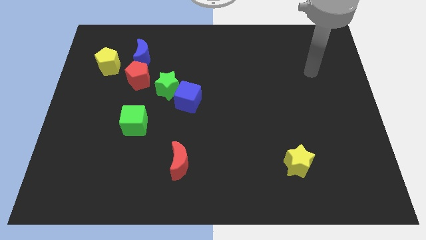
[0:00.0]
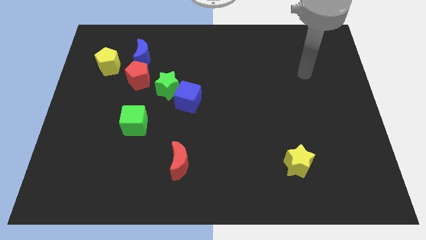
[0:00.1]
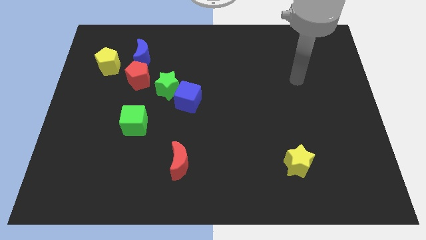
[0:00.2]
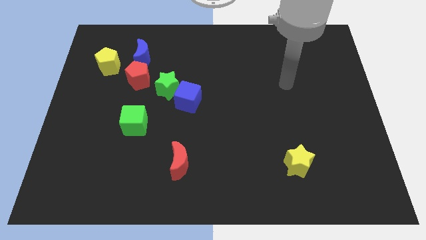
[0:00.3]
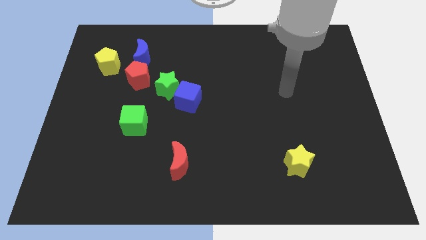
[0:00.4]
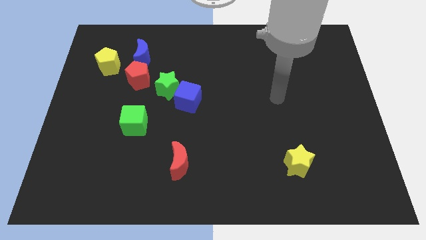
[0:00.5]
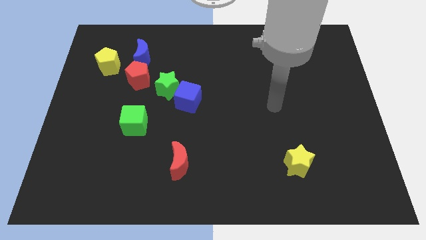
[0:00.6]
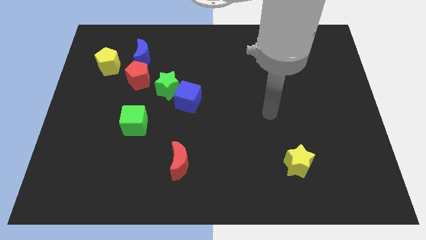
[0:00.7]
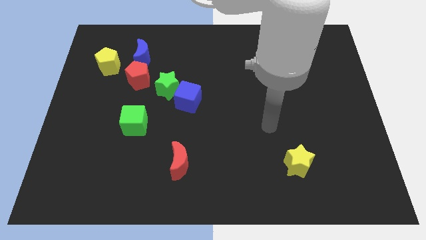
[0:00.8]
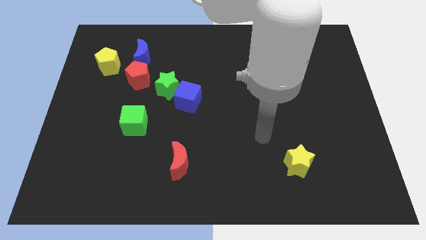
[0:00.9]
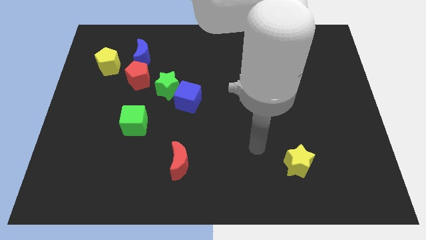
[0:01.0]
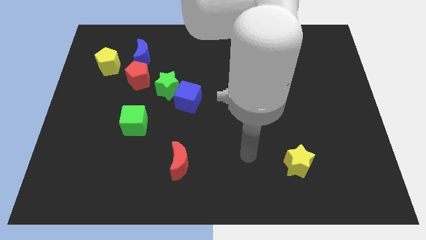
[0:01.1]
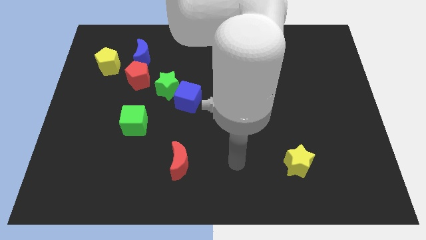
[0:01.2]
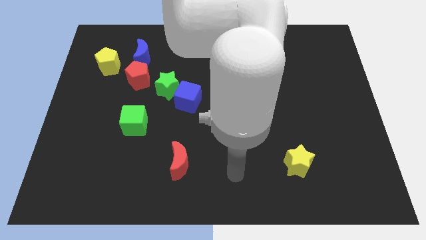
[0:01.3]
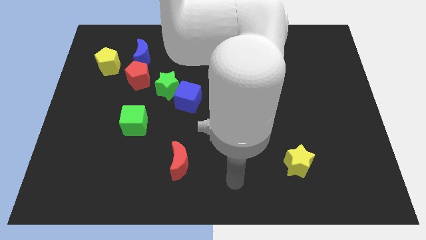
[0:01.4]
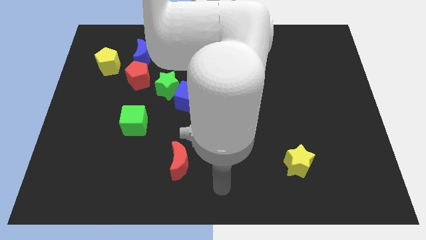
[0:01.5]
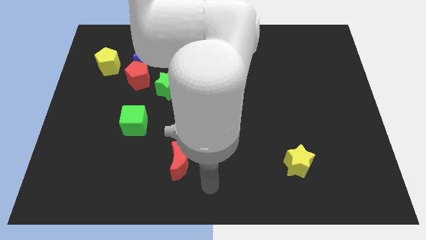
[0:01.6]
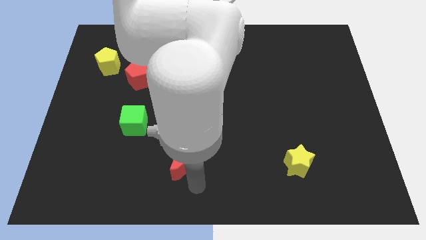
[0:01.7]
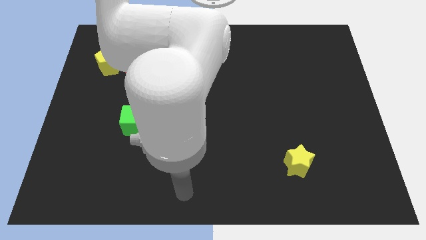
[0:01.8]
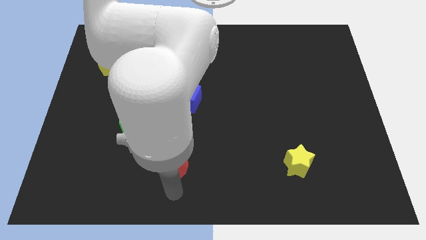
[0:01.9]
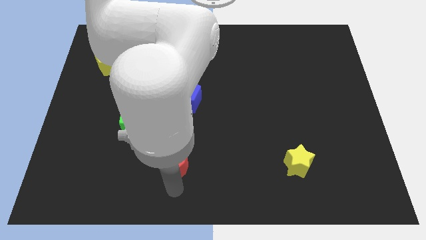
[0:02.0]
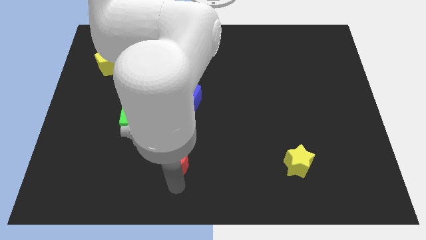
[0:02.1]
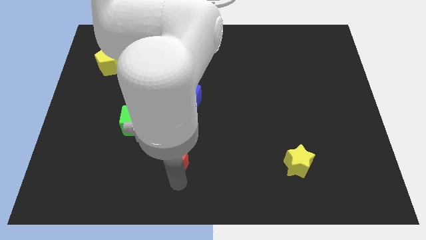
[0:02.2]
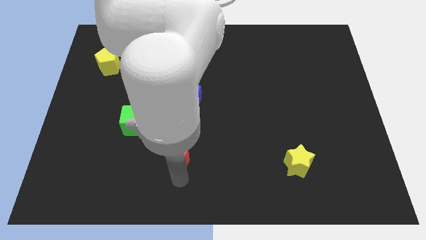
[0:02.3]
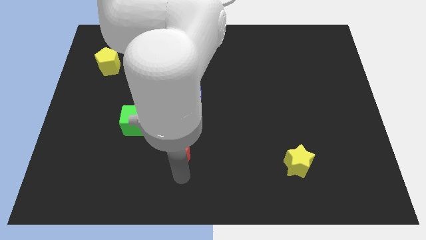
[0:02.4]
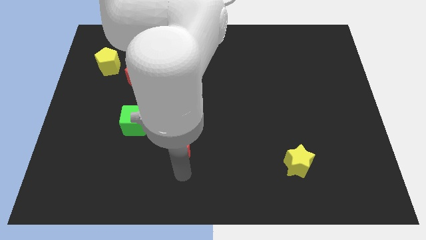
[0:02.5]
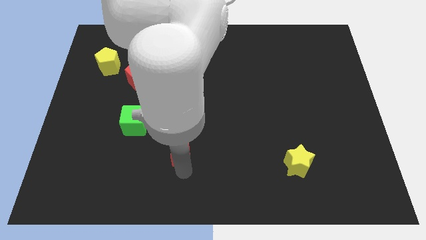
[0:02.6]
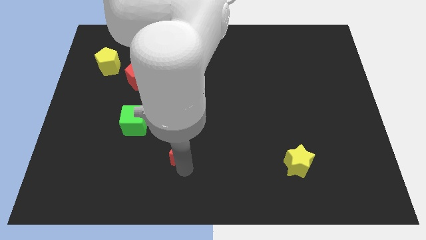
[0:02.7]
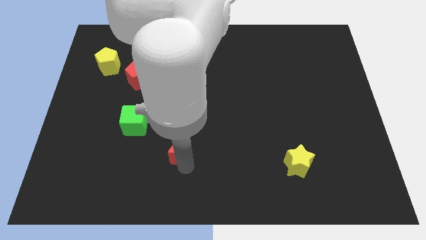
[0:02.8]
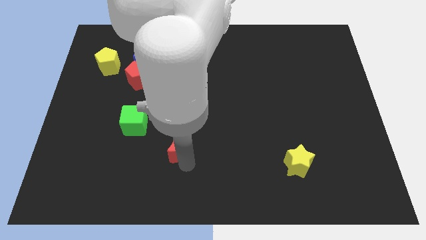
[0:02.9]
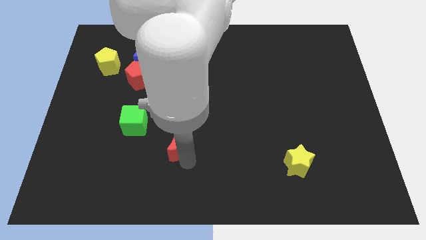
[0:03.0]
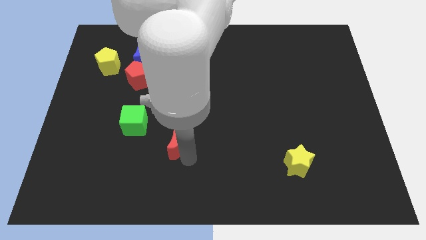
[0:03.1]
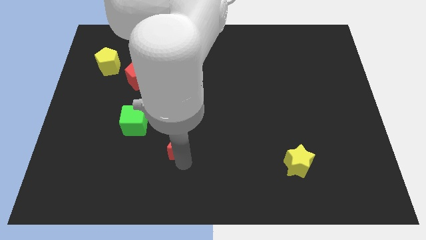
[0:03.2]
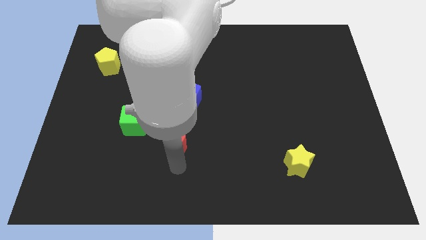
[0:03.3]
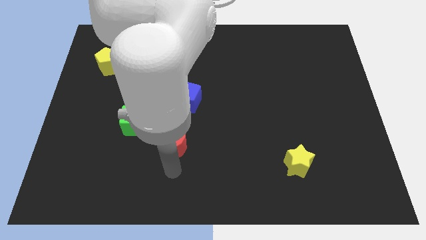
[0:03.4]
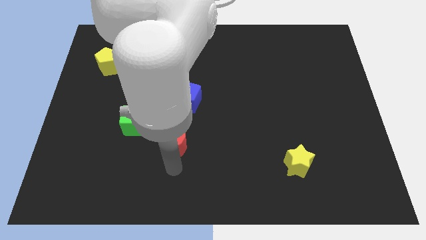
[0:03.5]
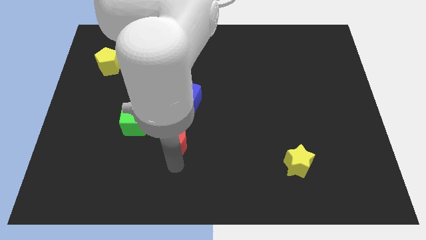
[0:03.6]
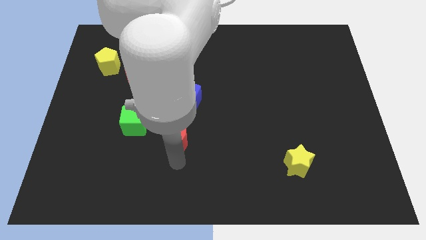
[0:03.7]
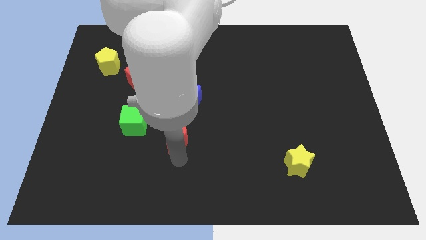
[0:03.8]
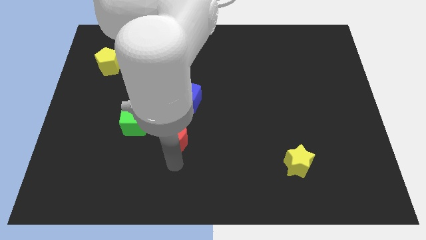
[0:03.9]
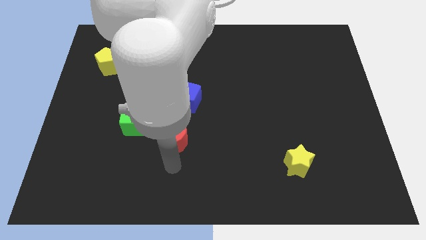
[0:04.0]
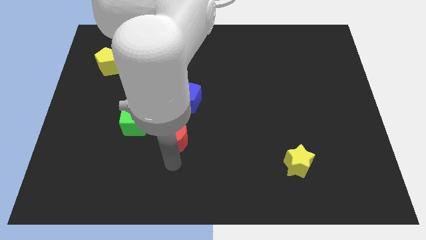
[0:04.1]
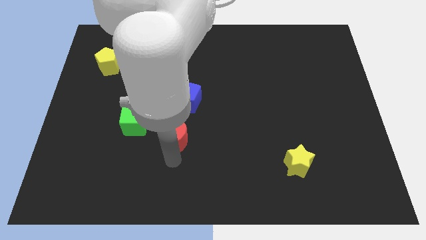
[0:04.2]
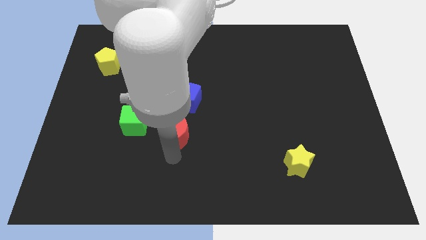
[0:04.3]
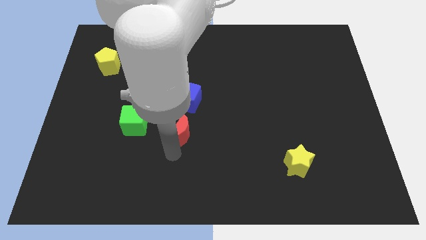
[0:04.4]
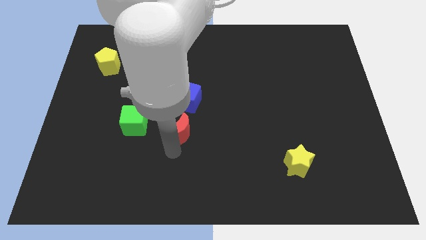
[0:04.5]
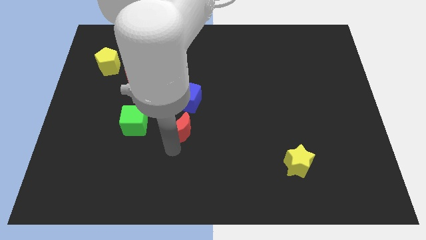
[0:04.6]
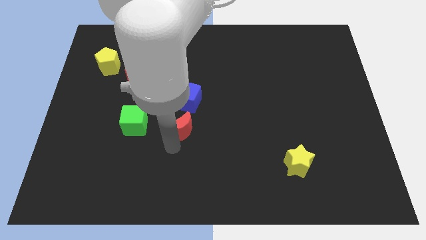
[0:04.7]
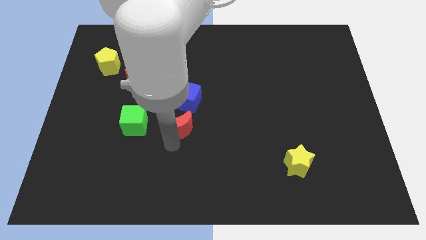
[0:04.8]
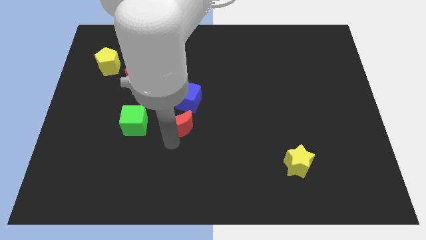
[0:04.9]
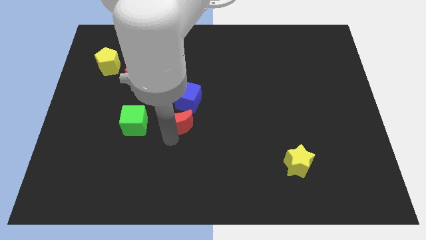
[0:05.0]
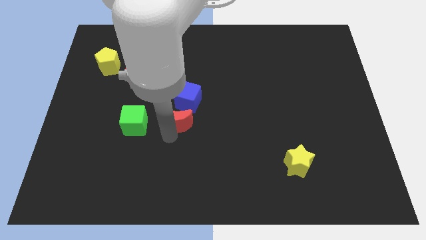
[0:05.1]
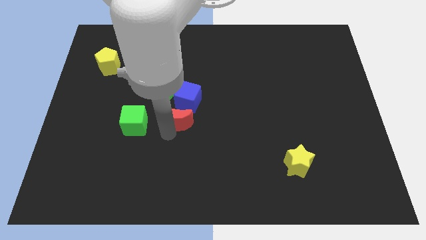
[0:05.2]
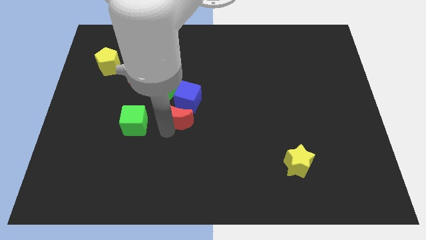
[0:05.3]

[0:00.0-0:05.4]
push the red moon towards the blue cube

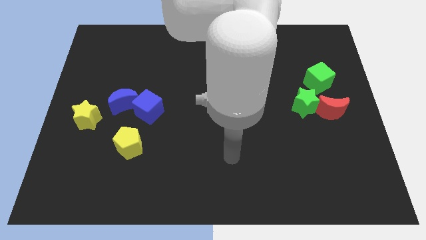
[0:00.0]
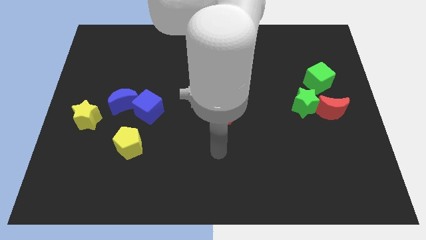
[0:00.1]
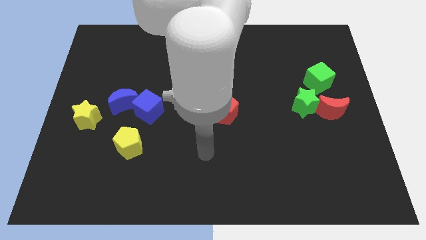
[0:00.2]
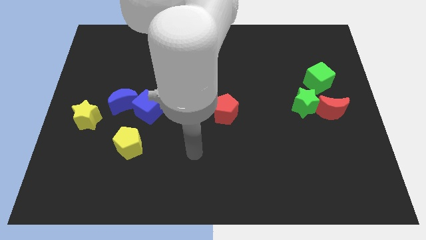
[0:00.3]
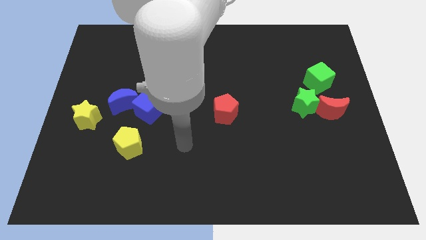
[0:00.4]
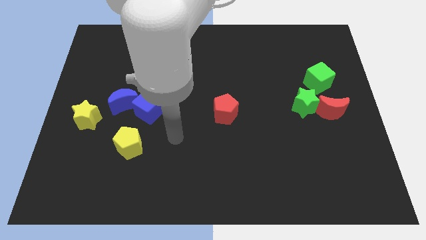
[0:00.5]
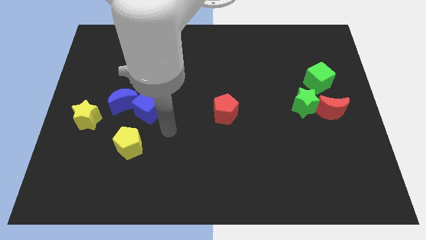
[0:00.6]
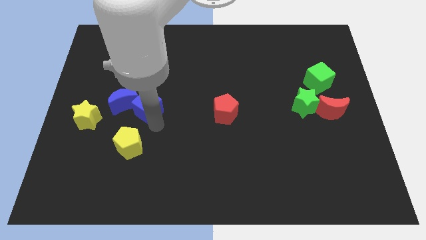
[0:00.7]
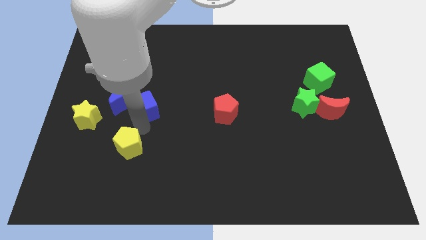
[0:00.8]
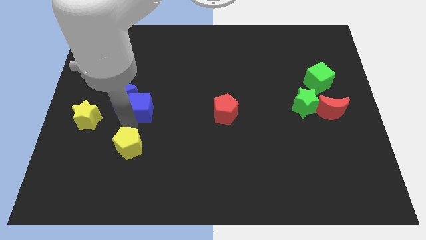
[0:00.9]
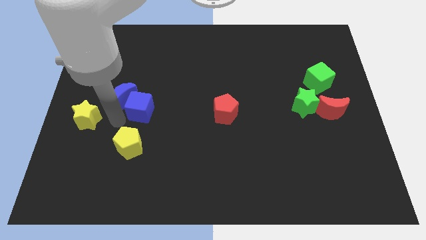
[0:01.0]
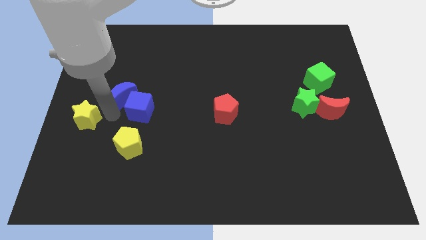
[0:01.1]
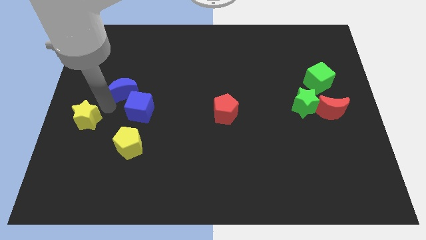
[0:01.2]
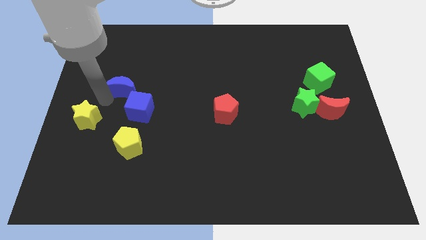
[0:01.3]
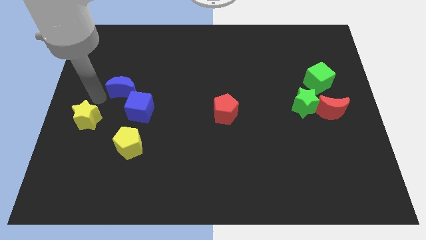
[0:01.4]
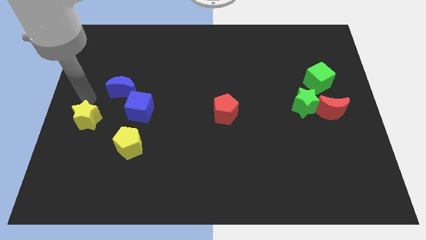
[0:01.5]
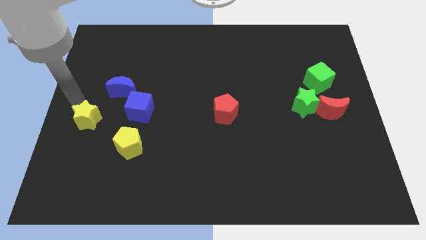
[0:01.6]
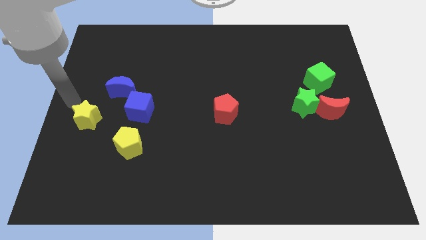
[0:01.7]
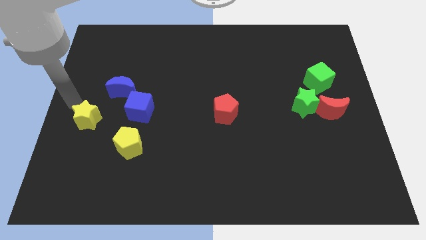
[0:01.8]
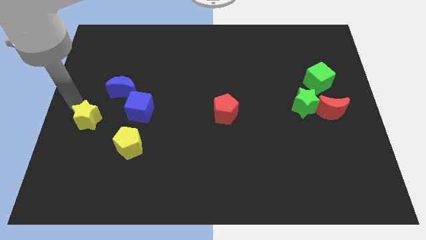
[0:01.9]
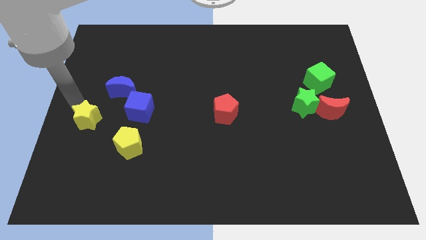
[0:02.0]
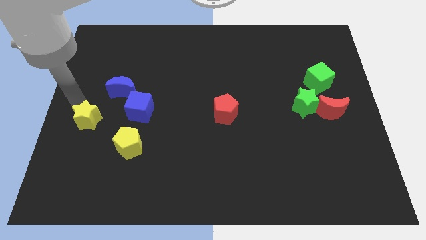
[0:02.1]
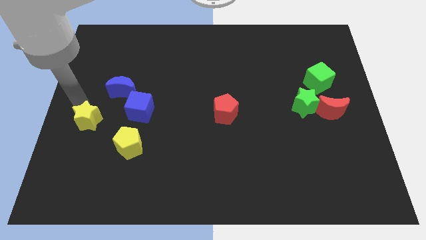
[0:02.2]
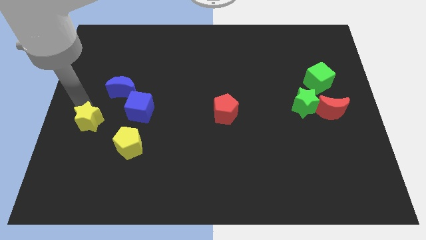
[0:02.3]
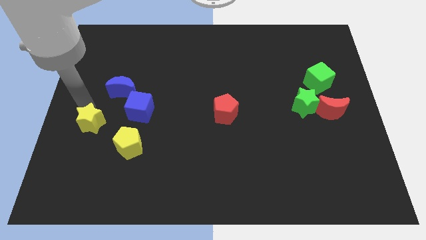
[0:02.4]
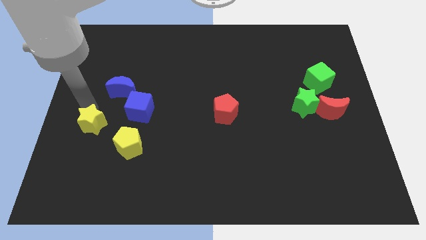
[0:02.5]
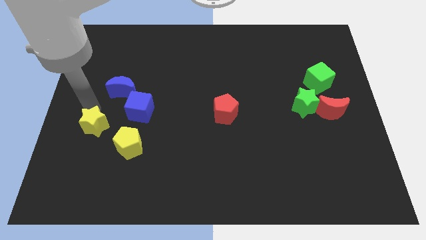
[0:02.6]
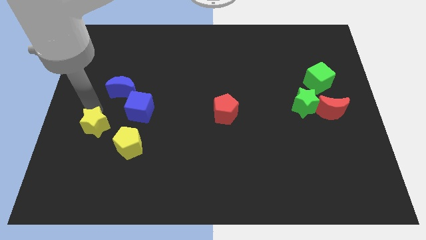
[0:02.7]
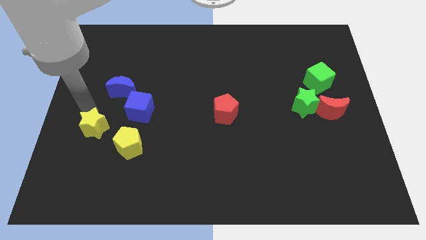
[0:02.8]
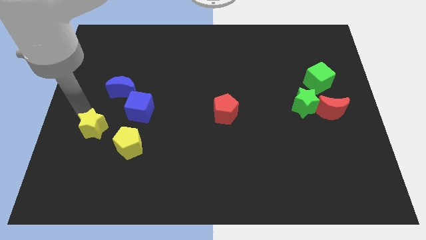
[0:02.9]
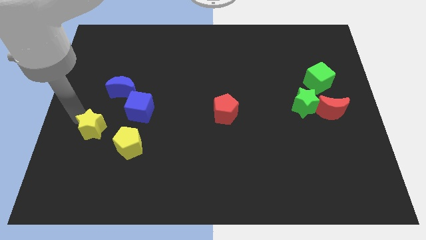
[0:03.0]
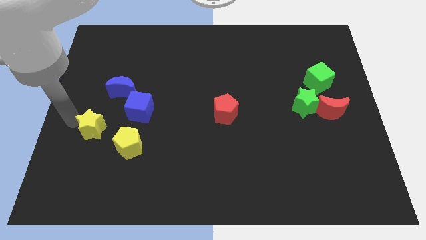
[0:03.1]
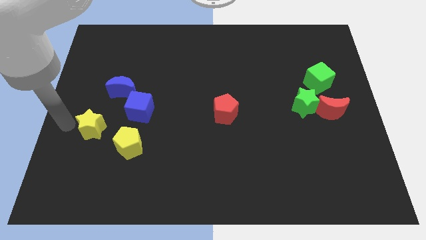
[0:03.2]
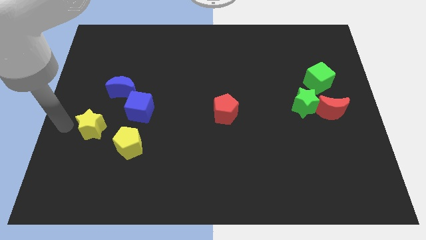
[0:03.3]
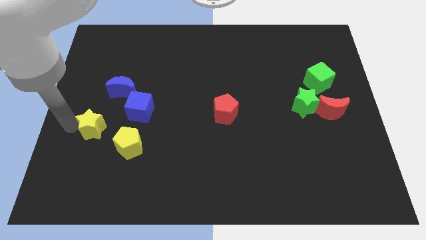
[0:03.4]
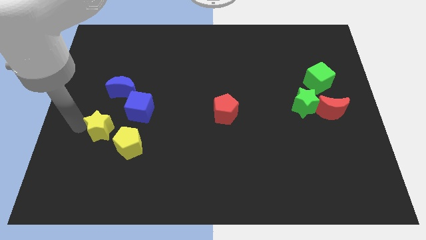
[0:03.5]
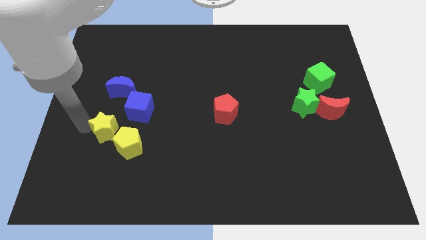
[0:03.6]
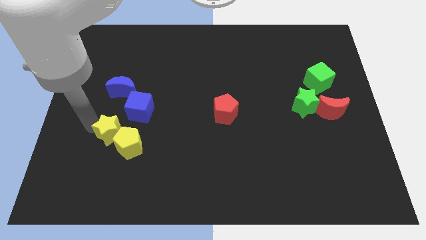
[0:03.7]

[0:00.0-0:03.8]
push the yellow star towards the yellow pentagon
